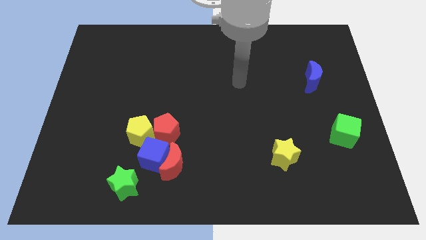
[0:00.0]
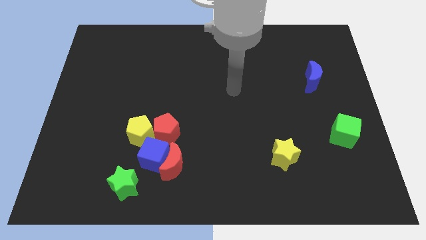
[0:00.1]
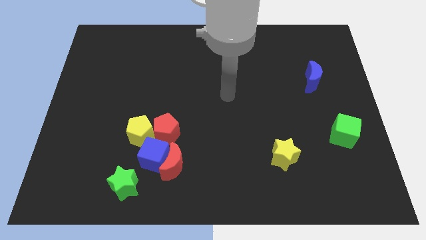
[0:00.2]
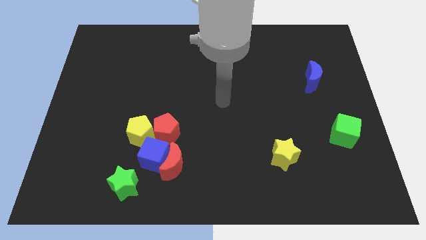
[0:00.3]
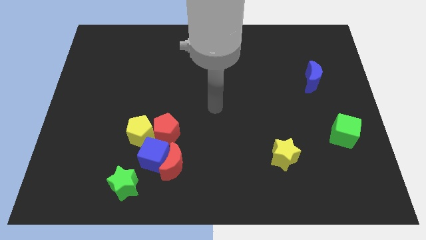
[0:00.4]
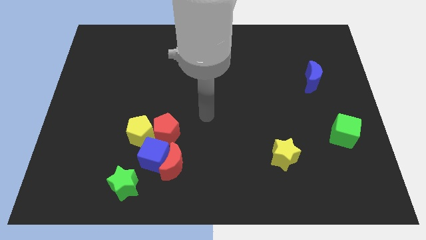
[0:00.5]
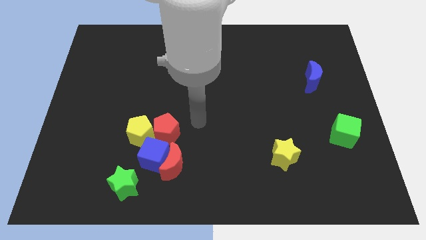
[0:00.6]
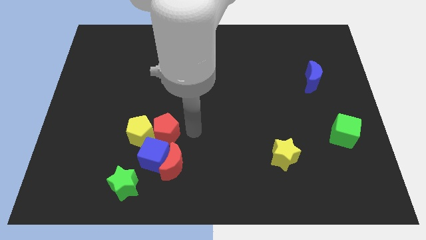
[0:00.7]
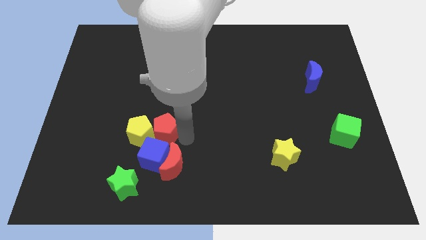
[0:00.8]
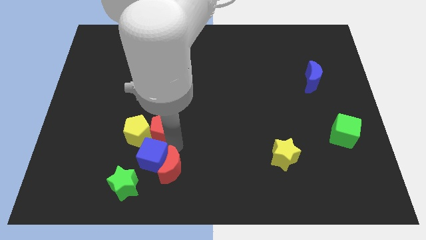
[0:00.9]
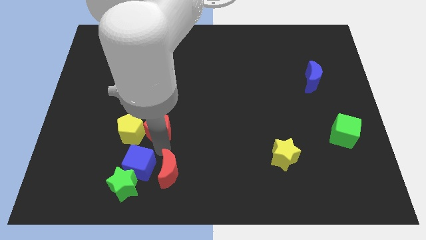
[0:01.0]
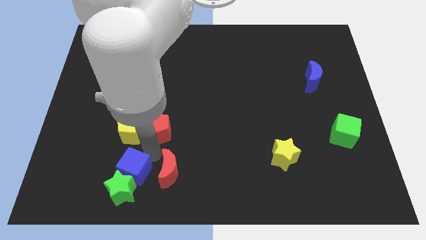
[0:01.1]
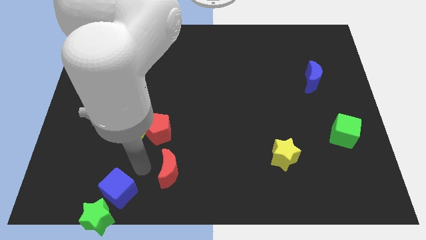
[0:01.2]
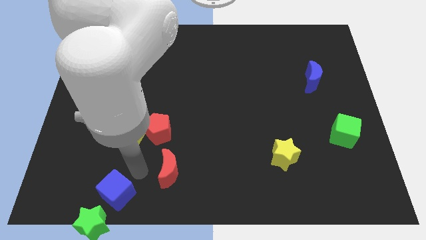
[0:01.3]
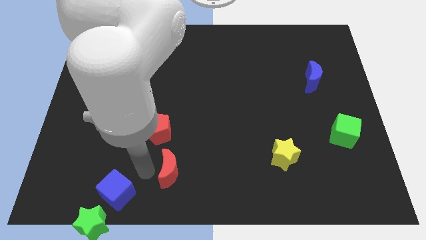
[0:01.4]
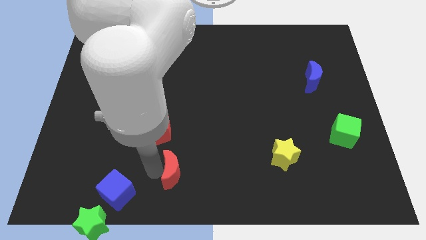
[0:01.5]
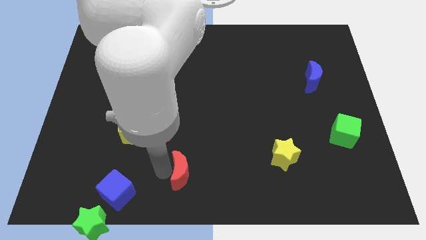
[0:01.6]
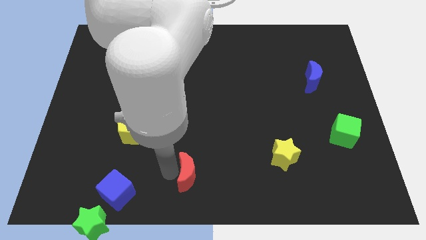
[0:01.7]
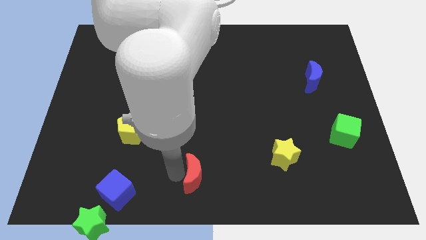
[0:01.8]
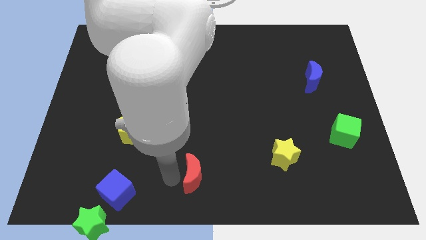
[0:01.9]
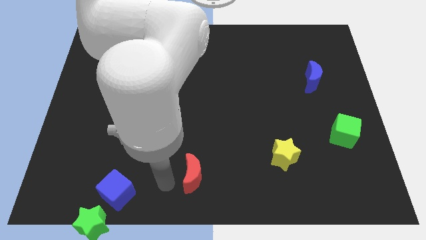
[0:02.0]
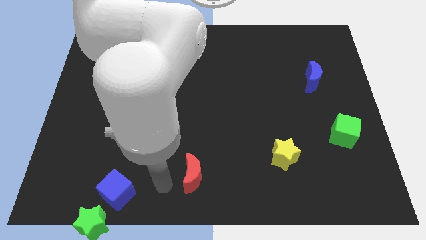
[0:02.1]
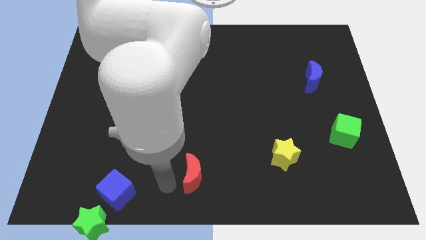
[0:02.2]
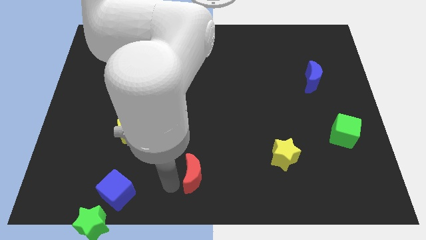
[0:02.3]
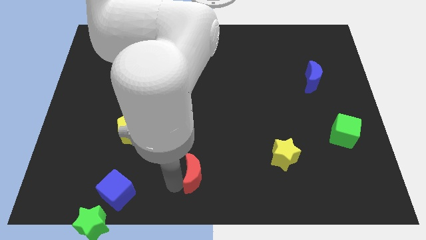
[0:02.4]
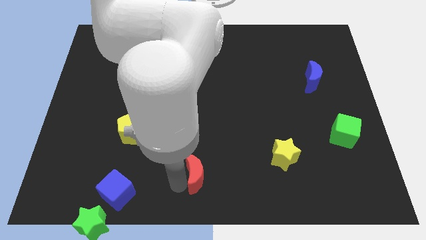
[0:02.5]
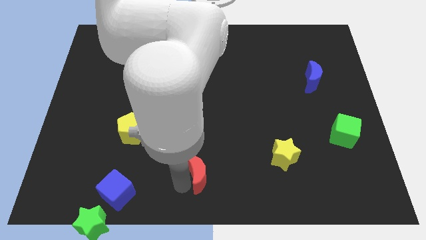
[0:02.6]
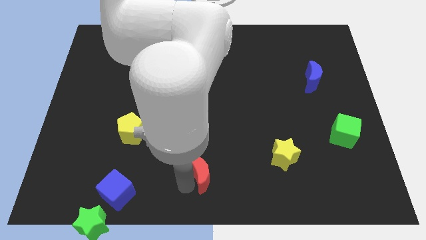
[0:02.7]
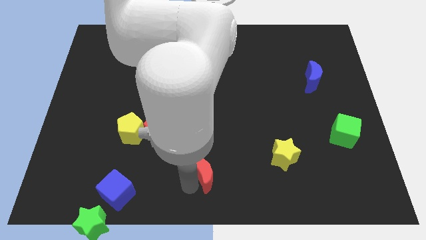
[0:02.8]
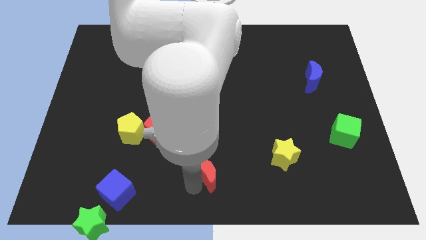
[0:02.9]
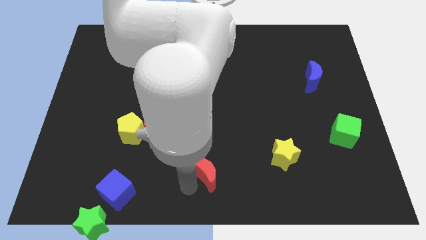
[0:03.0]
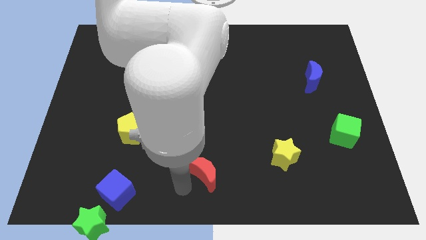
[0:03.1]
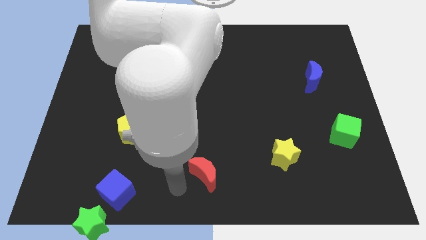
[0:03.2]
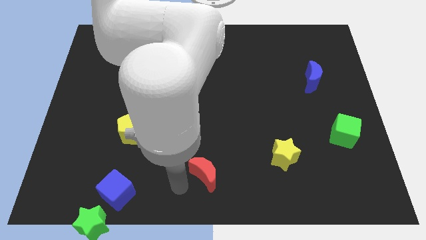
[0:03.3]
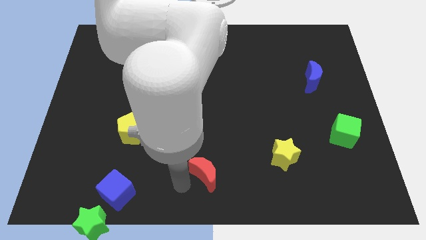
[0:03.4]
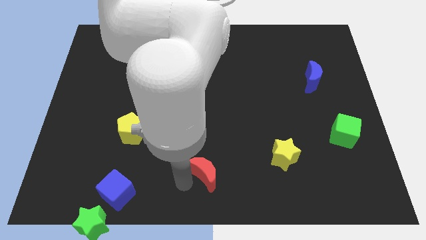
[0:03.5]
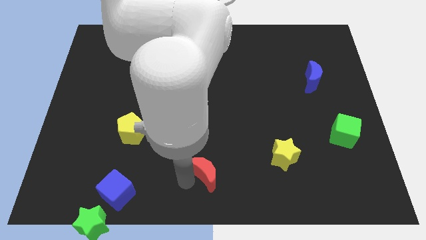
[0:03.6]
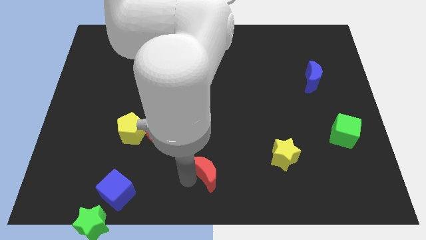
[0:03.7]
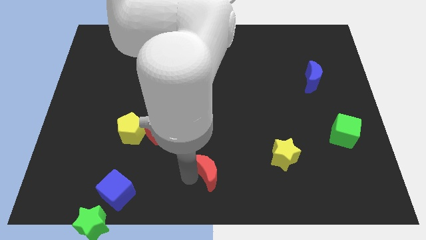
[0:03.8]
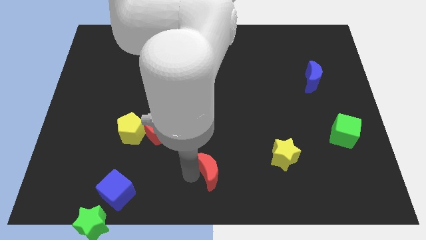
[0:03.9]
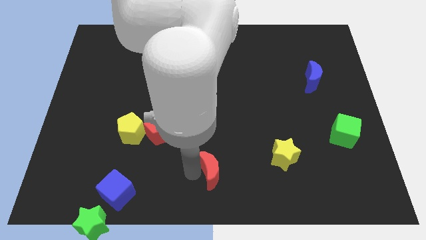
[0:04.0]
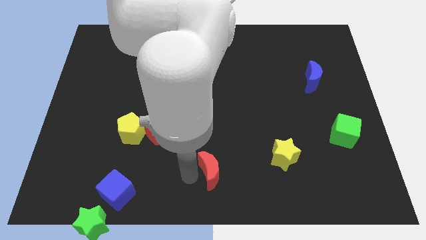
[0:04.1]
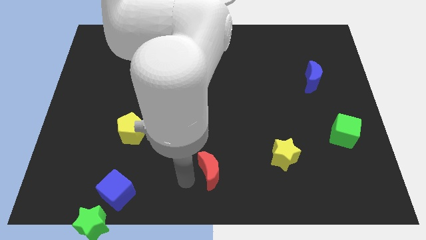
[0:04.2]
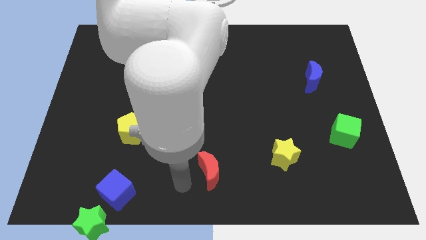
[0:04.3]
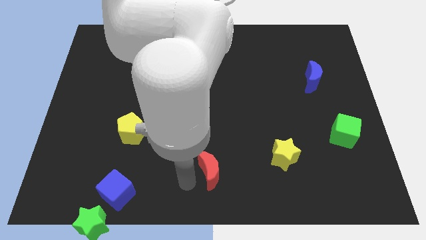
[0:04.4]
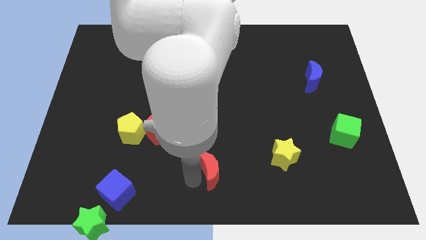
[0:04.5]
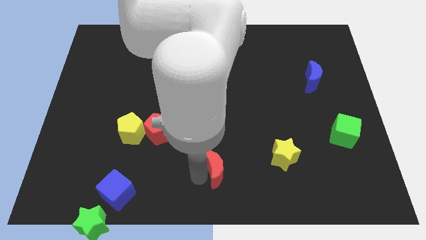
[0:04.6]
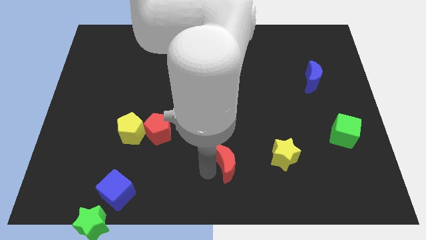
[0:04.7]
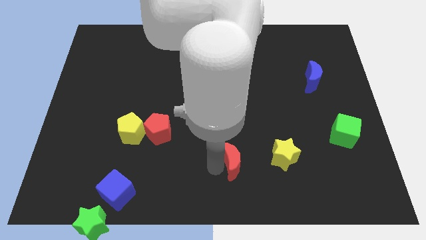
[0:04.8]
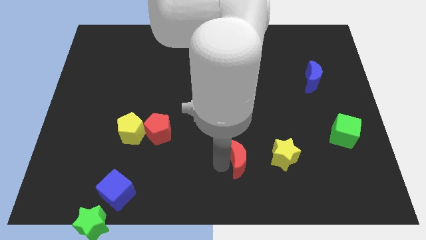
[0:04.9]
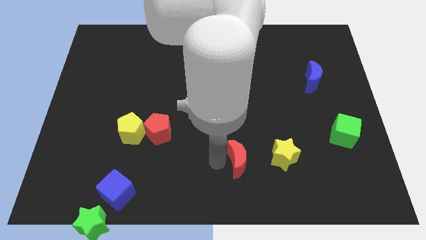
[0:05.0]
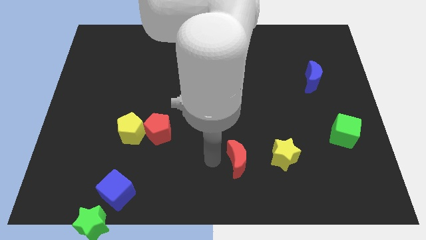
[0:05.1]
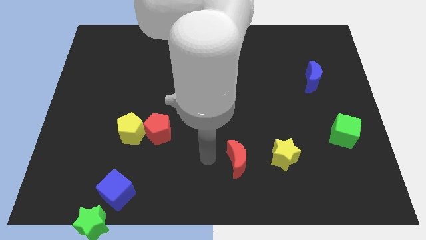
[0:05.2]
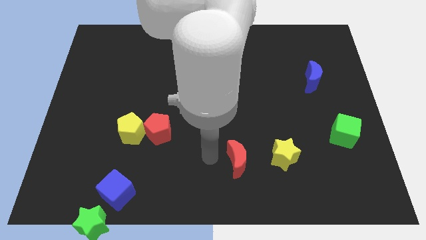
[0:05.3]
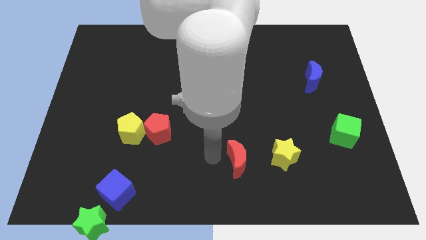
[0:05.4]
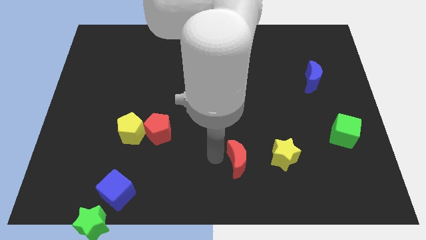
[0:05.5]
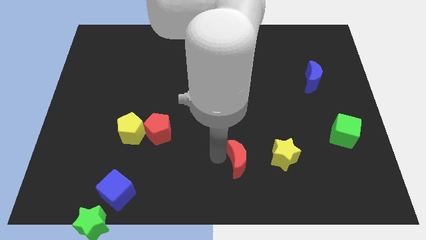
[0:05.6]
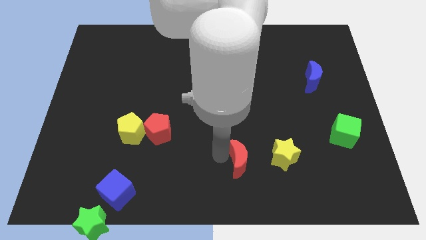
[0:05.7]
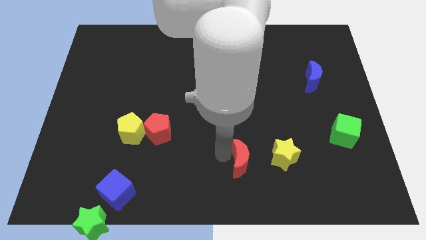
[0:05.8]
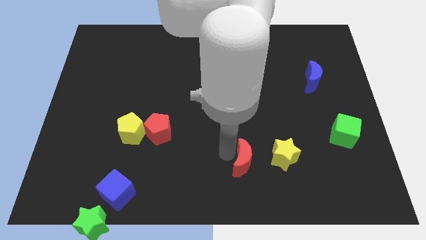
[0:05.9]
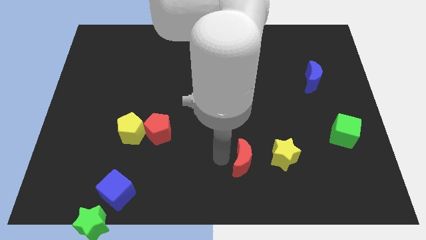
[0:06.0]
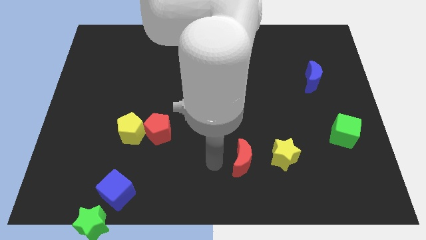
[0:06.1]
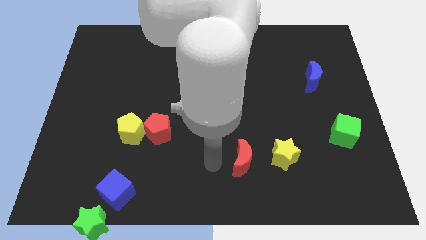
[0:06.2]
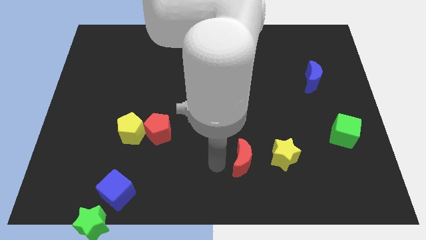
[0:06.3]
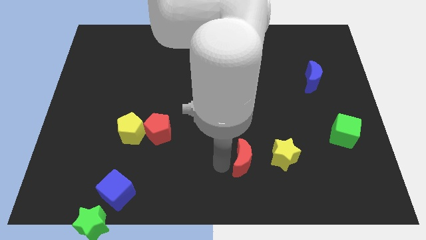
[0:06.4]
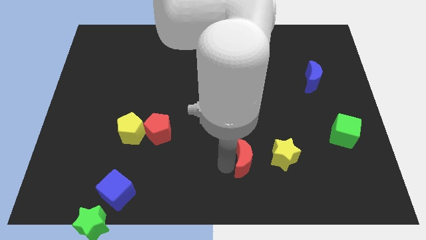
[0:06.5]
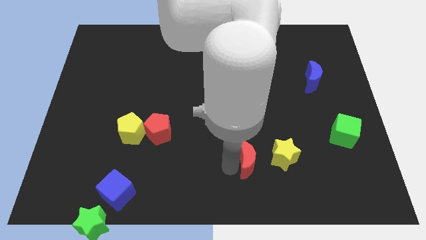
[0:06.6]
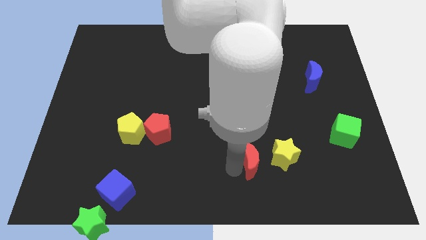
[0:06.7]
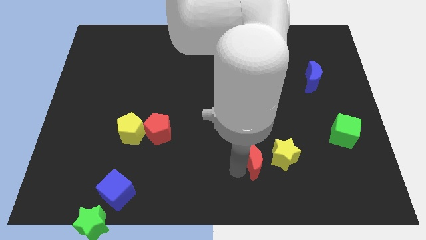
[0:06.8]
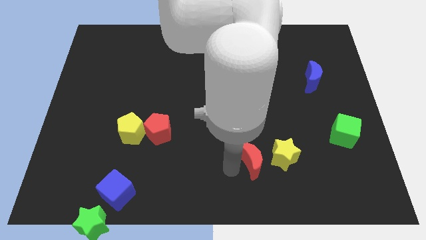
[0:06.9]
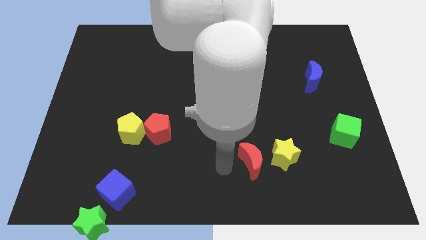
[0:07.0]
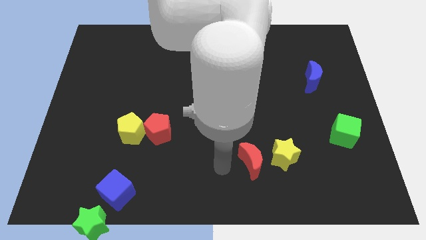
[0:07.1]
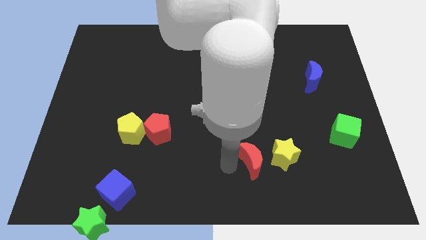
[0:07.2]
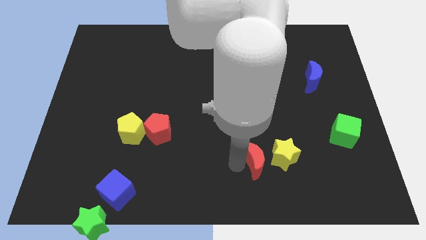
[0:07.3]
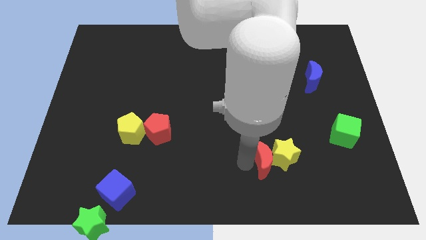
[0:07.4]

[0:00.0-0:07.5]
move the red moon next to the yellow star
